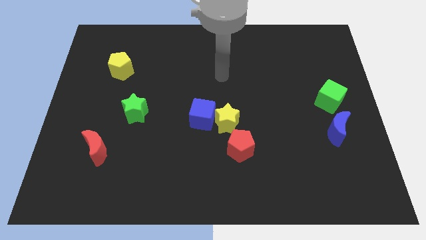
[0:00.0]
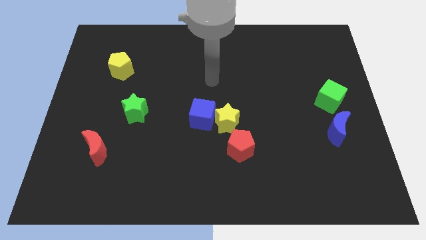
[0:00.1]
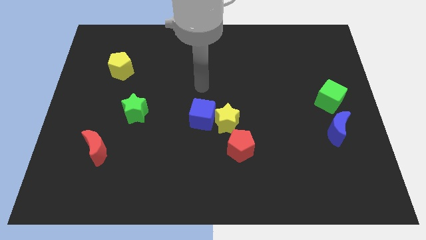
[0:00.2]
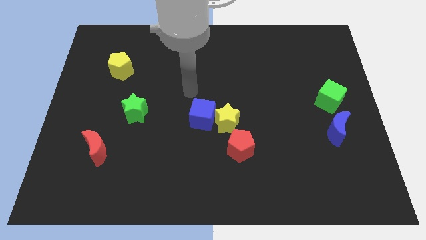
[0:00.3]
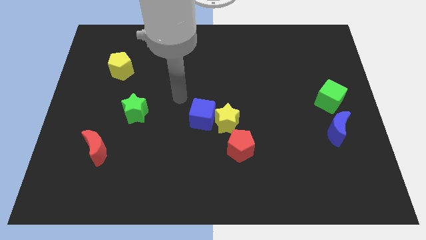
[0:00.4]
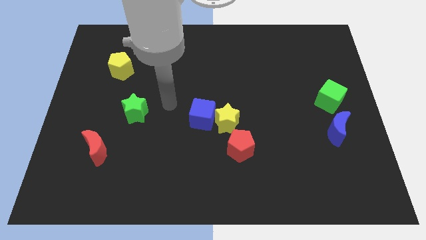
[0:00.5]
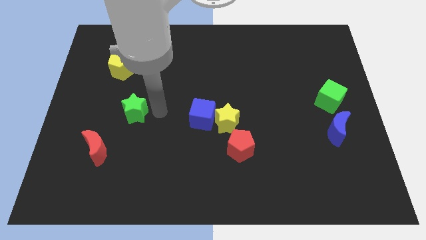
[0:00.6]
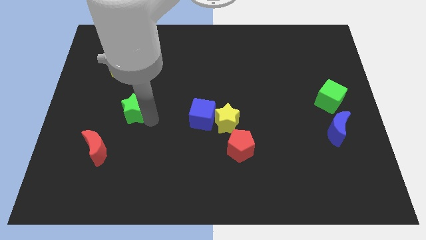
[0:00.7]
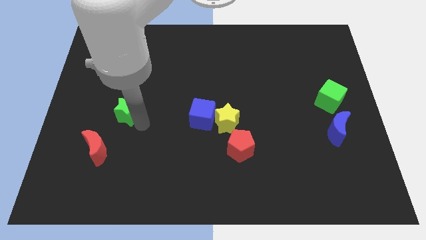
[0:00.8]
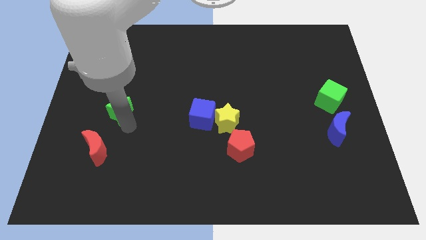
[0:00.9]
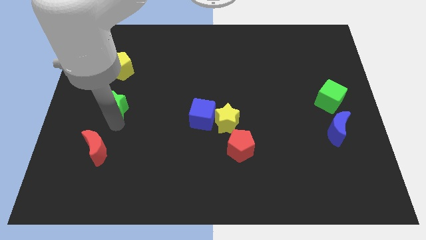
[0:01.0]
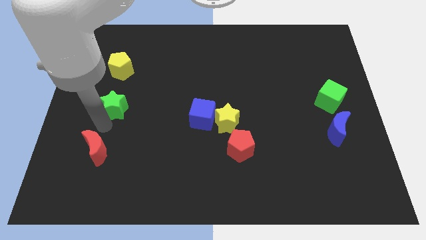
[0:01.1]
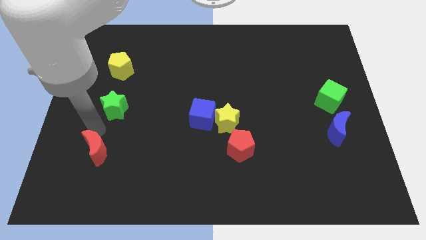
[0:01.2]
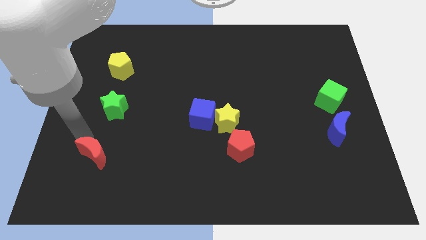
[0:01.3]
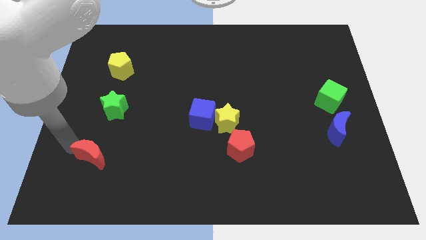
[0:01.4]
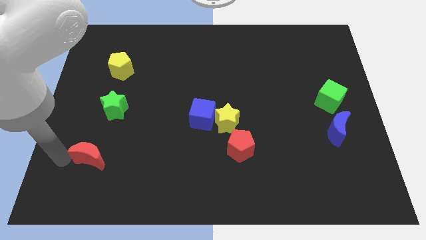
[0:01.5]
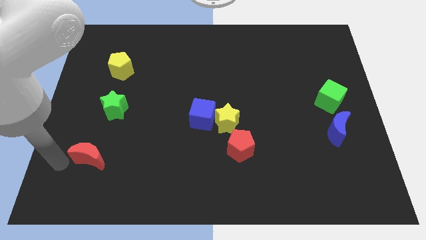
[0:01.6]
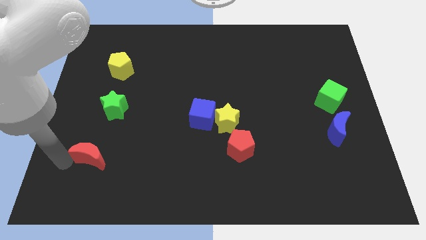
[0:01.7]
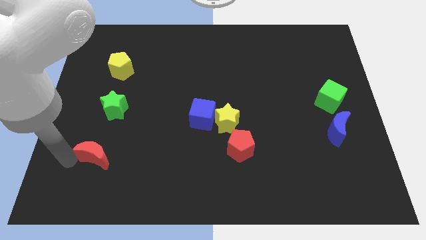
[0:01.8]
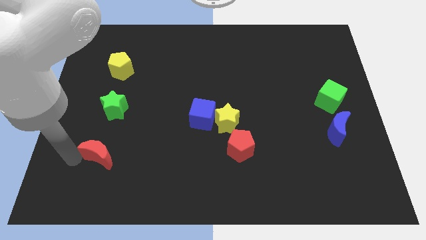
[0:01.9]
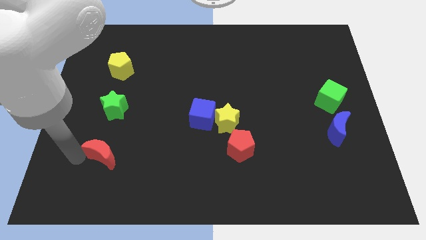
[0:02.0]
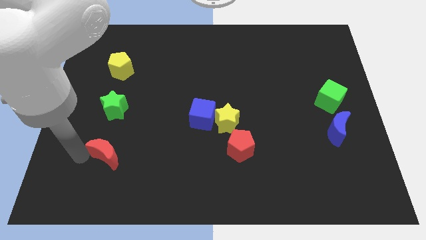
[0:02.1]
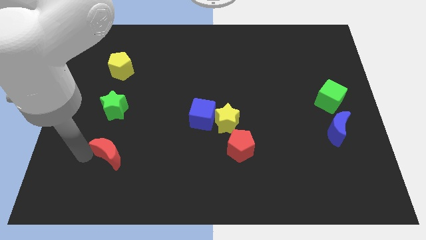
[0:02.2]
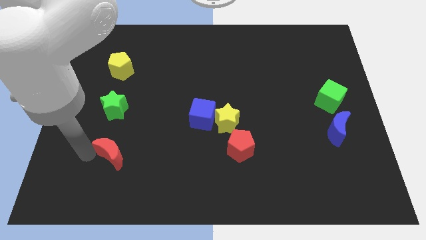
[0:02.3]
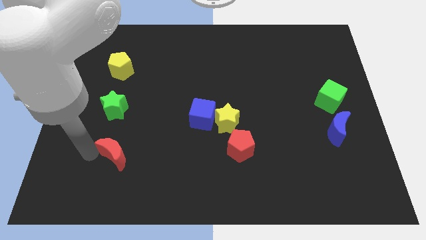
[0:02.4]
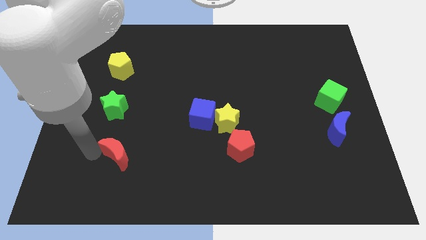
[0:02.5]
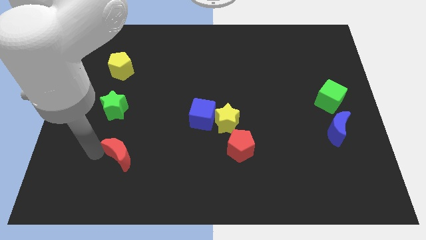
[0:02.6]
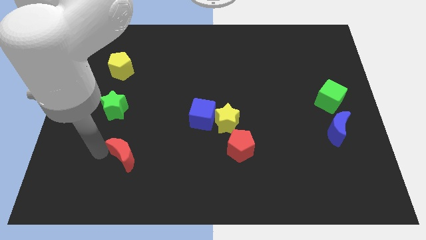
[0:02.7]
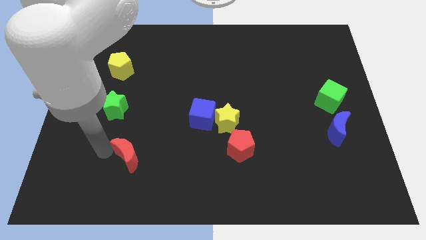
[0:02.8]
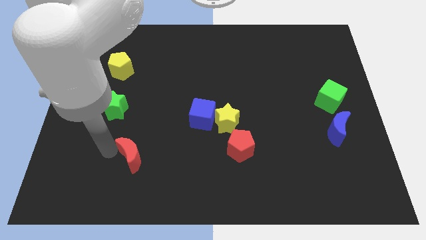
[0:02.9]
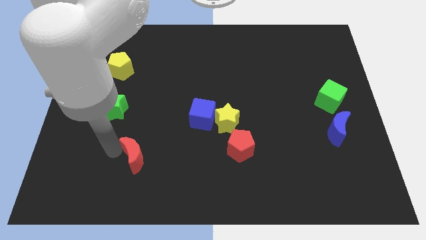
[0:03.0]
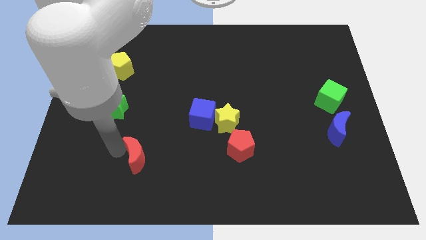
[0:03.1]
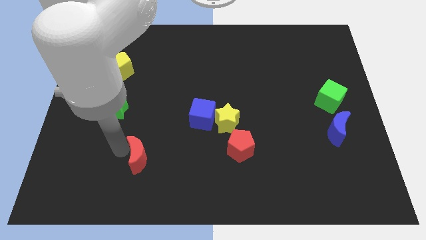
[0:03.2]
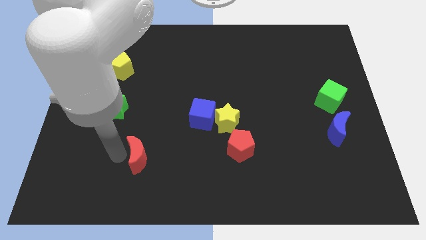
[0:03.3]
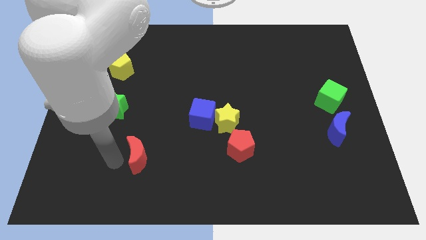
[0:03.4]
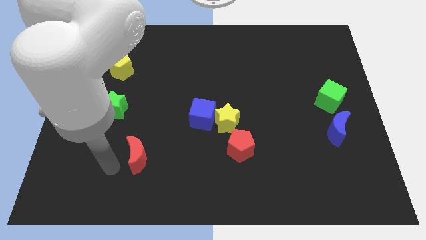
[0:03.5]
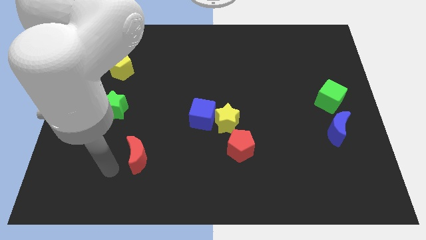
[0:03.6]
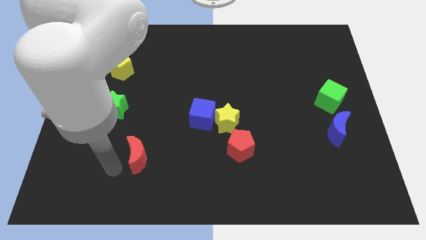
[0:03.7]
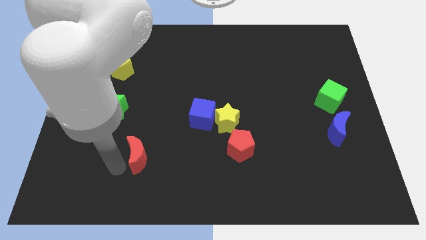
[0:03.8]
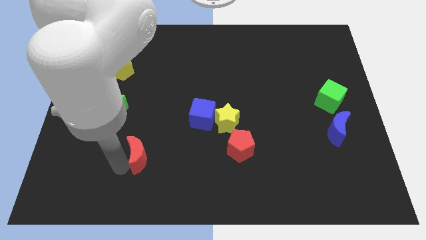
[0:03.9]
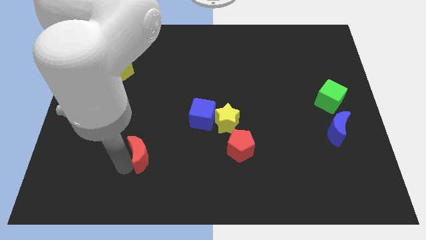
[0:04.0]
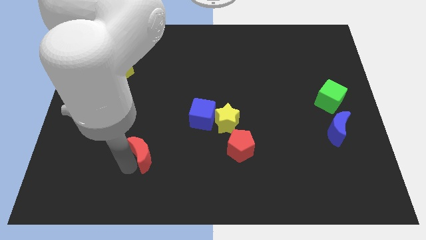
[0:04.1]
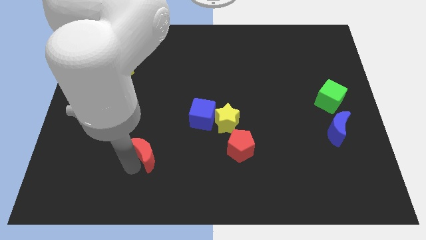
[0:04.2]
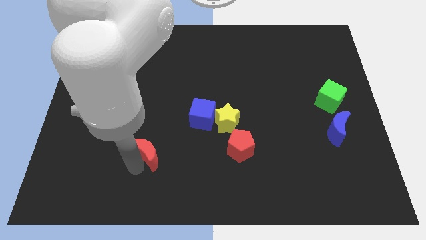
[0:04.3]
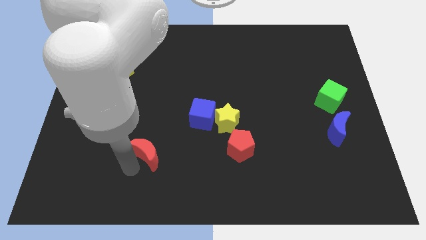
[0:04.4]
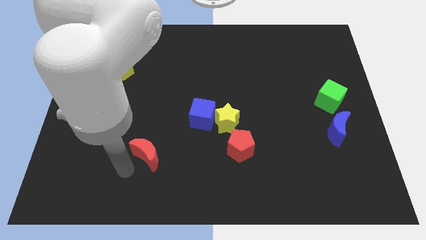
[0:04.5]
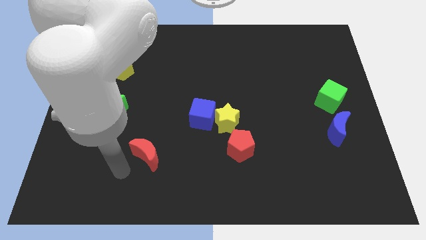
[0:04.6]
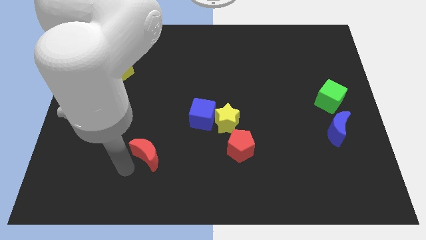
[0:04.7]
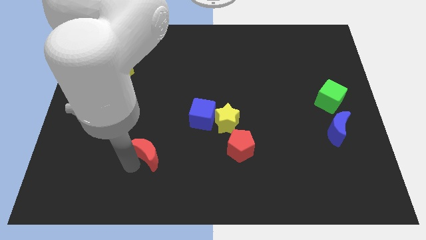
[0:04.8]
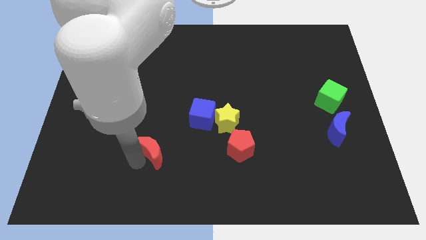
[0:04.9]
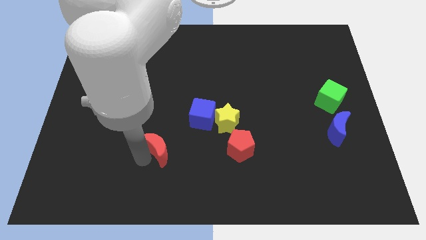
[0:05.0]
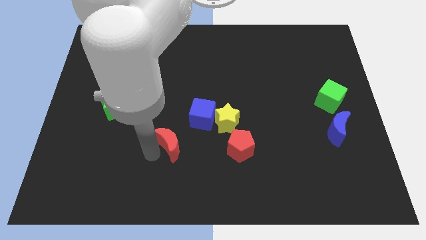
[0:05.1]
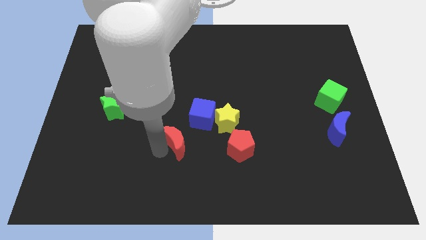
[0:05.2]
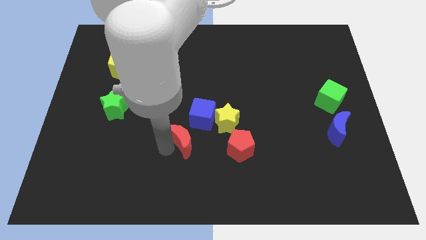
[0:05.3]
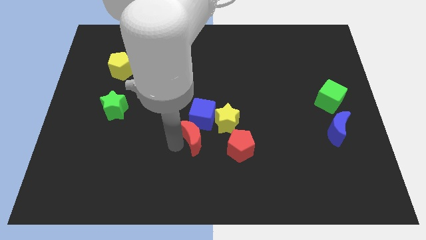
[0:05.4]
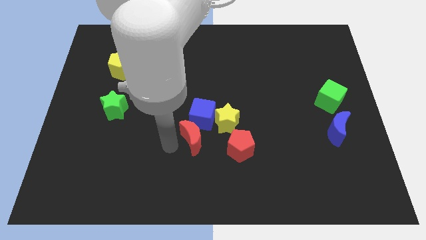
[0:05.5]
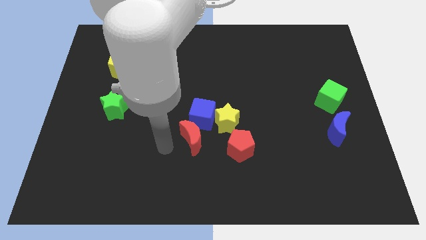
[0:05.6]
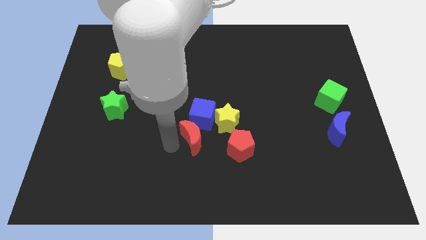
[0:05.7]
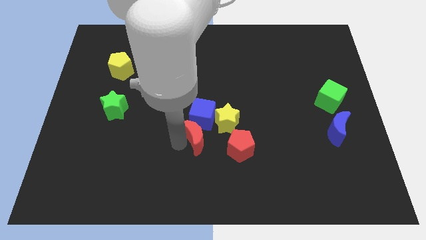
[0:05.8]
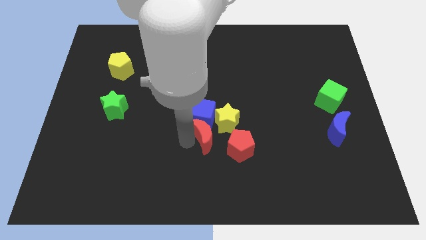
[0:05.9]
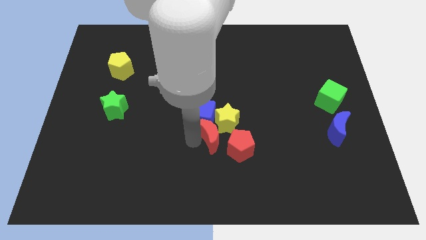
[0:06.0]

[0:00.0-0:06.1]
slide the red moon towards the yellow star
